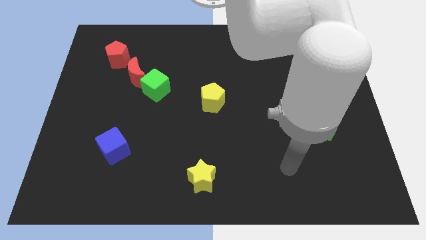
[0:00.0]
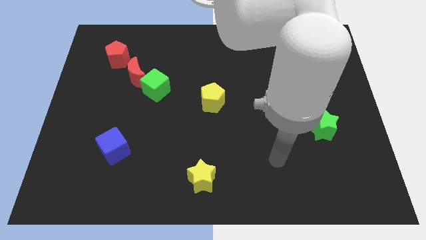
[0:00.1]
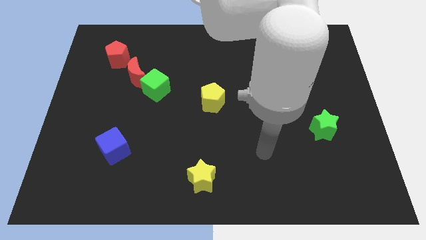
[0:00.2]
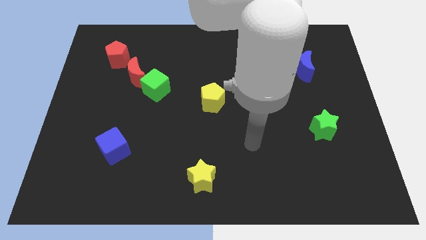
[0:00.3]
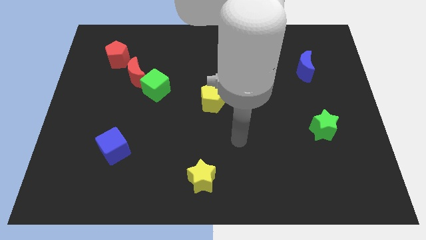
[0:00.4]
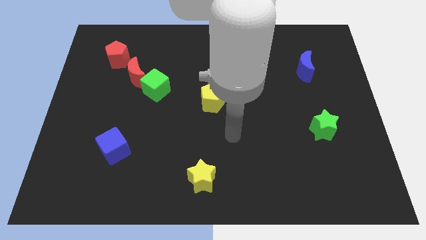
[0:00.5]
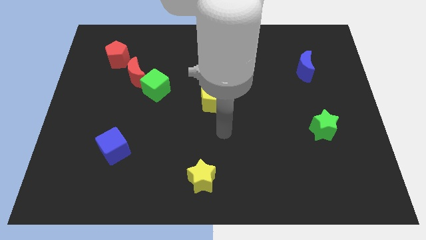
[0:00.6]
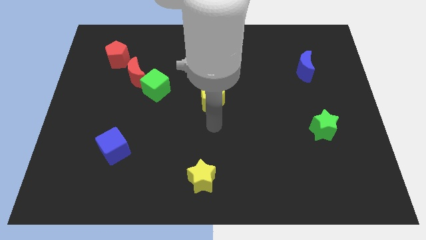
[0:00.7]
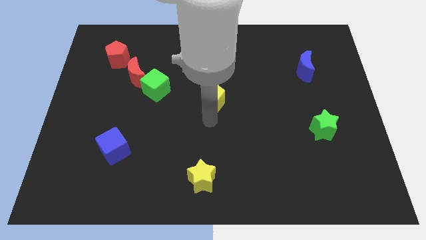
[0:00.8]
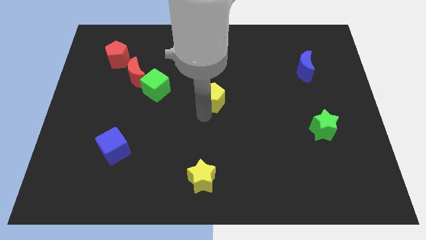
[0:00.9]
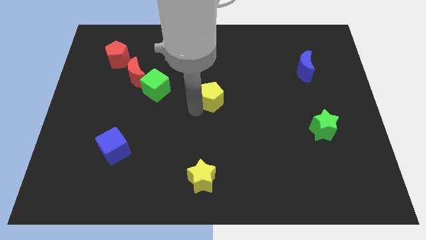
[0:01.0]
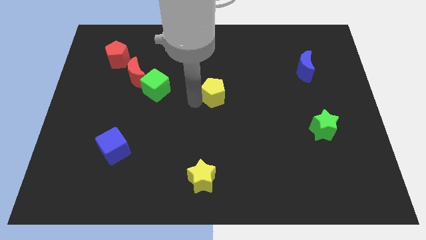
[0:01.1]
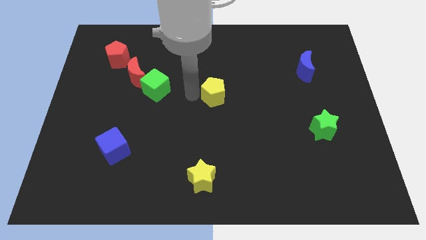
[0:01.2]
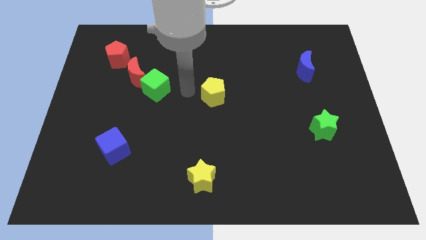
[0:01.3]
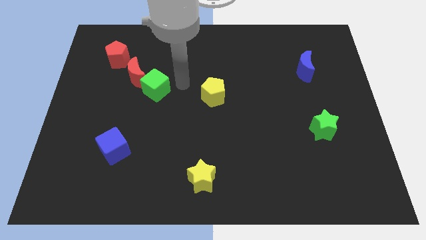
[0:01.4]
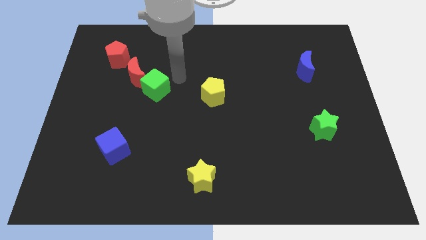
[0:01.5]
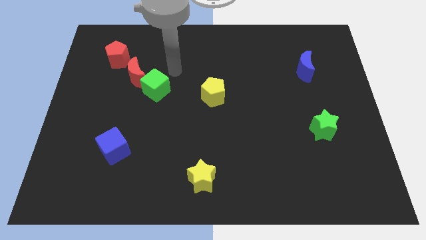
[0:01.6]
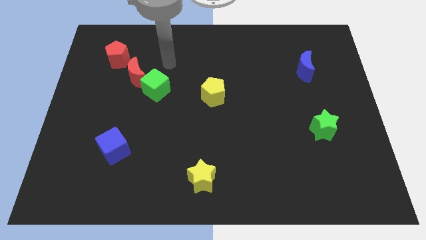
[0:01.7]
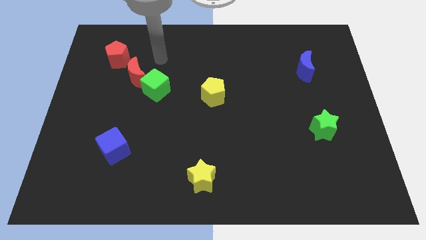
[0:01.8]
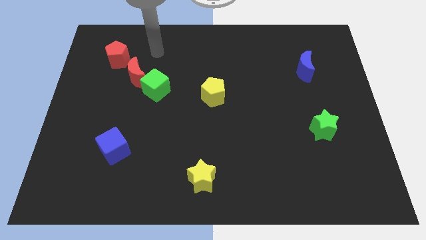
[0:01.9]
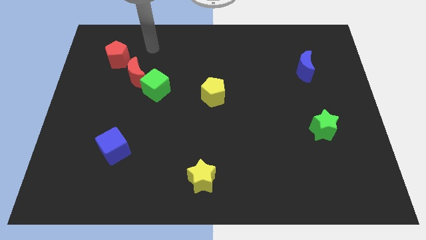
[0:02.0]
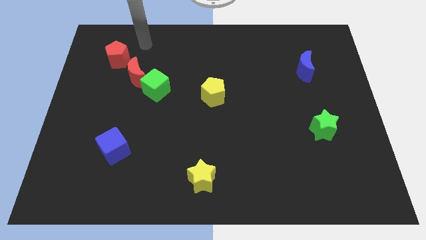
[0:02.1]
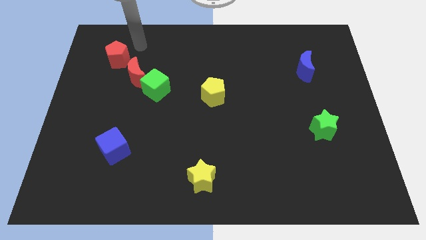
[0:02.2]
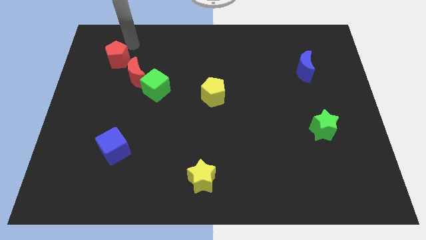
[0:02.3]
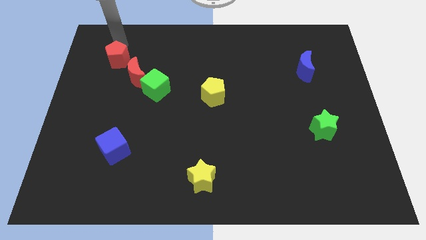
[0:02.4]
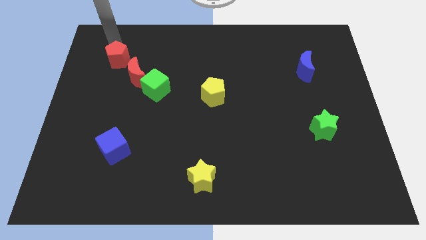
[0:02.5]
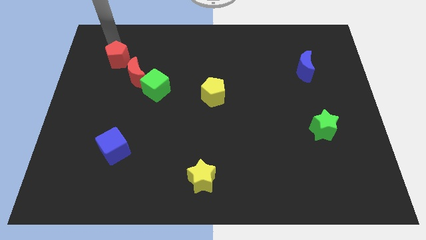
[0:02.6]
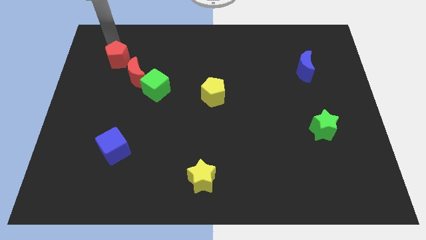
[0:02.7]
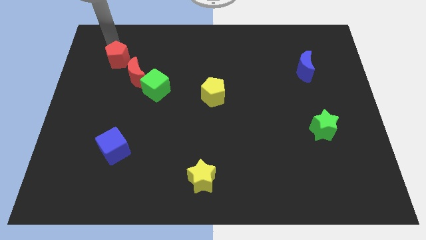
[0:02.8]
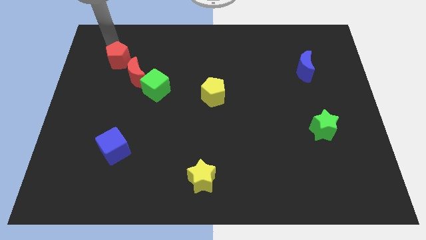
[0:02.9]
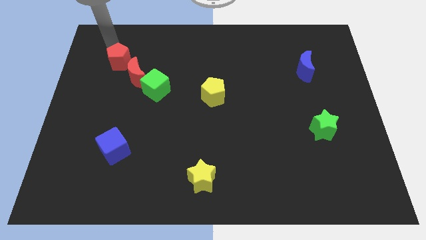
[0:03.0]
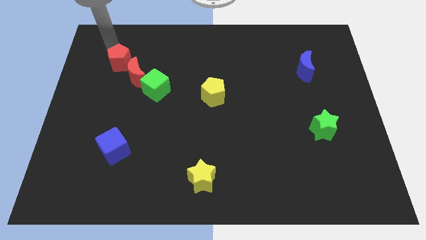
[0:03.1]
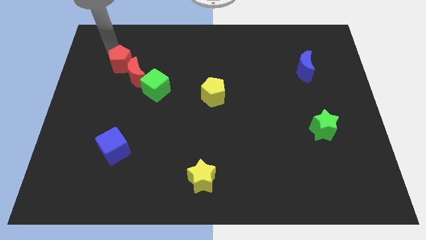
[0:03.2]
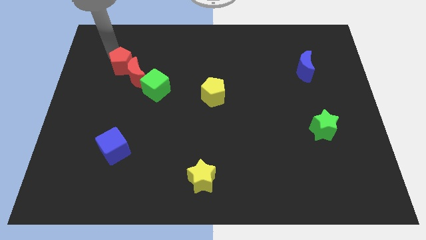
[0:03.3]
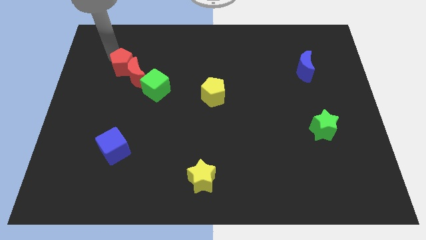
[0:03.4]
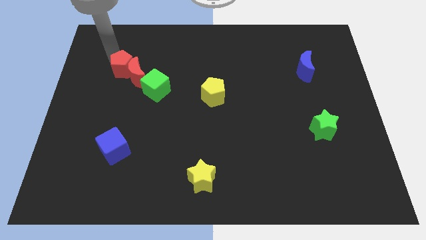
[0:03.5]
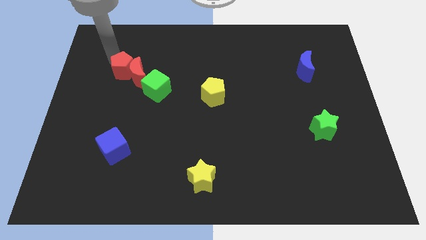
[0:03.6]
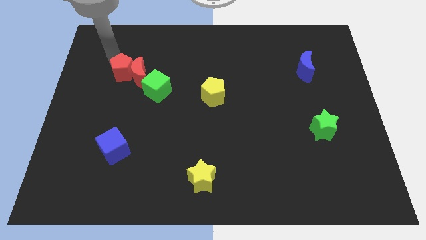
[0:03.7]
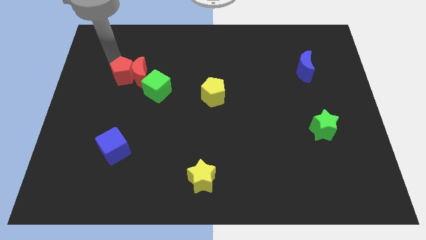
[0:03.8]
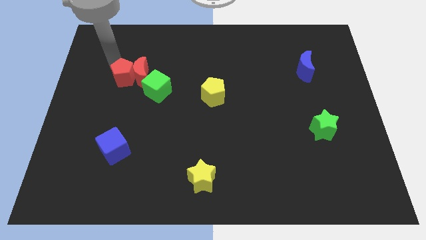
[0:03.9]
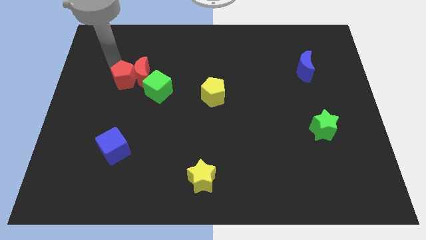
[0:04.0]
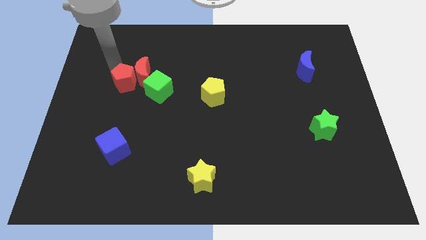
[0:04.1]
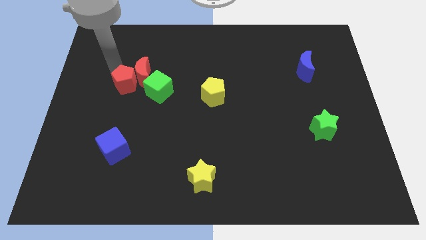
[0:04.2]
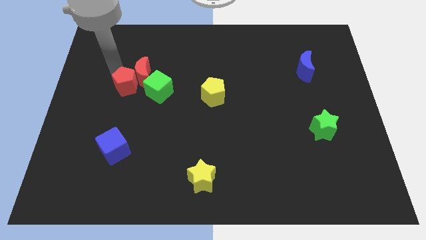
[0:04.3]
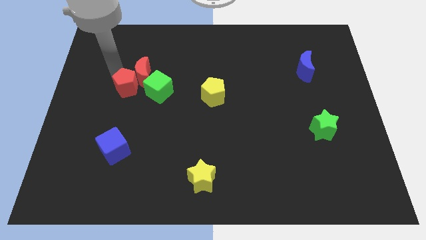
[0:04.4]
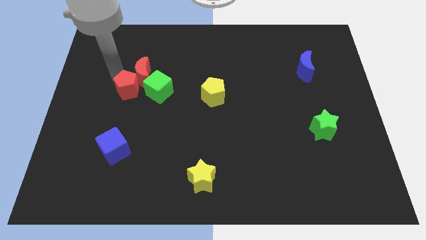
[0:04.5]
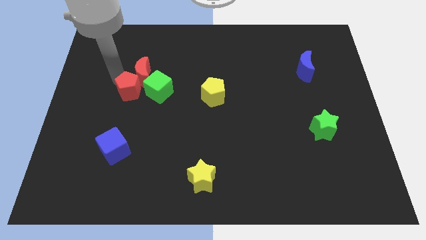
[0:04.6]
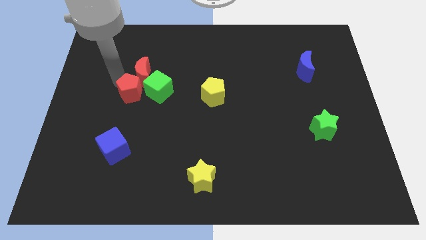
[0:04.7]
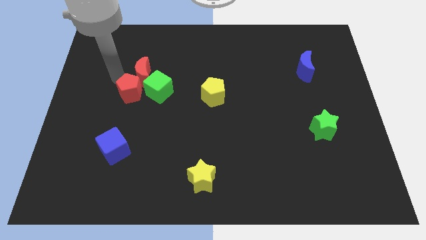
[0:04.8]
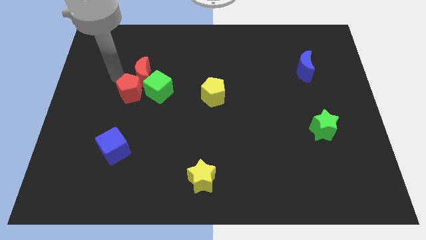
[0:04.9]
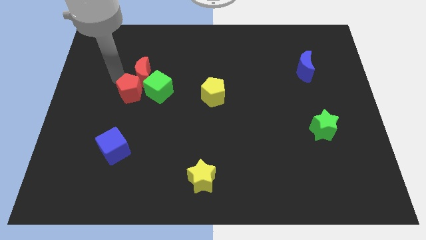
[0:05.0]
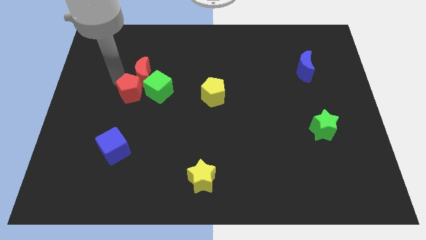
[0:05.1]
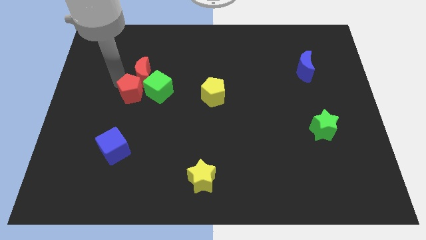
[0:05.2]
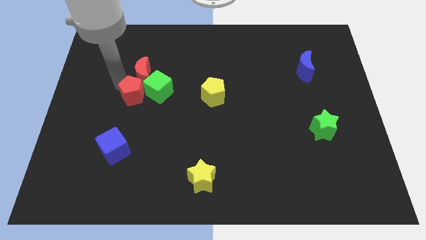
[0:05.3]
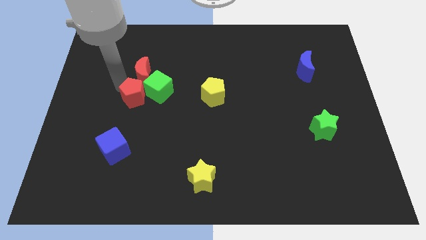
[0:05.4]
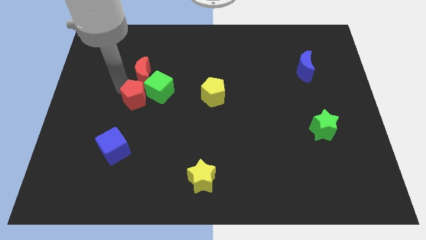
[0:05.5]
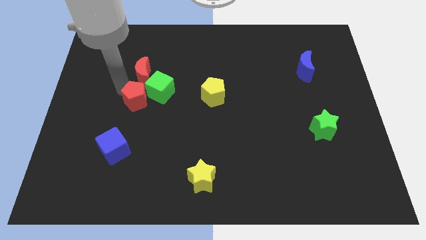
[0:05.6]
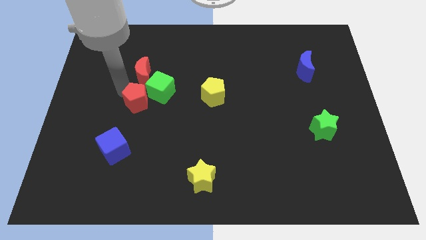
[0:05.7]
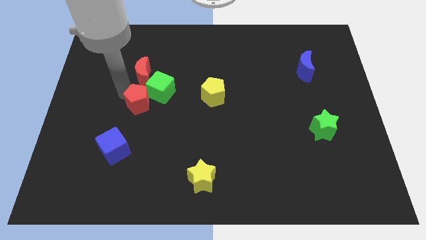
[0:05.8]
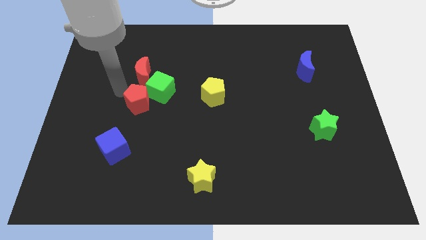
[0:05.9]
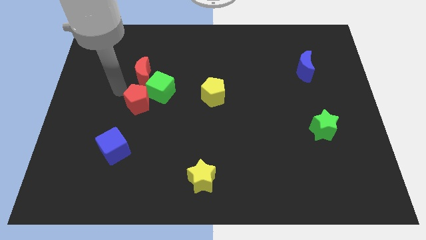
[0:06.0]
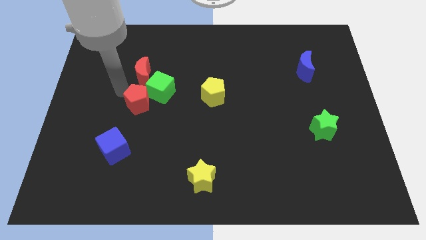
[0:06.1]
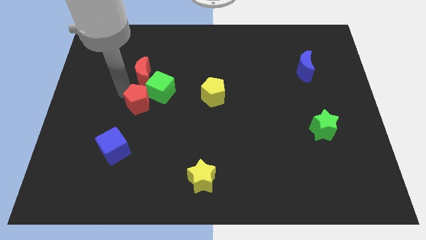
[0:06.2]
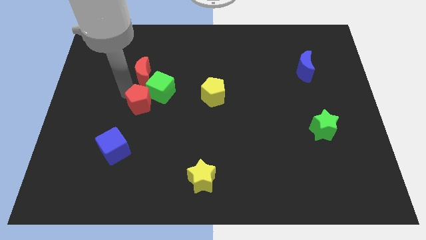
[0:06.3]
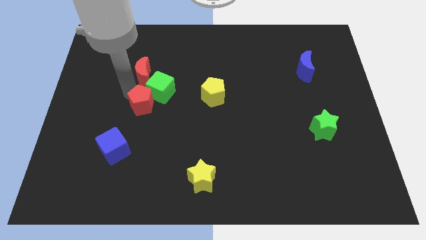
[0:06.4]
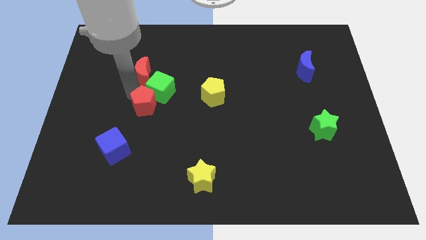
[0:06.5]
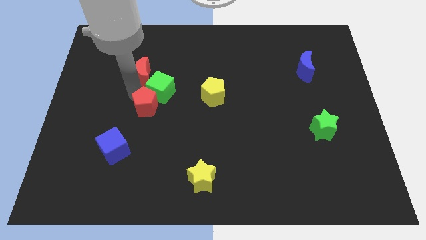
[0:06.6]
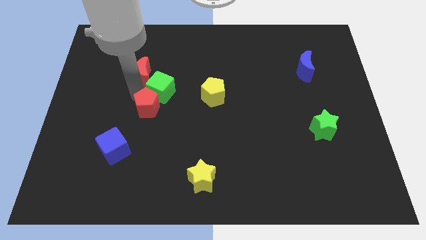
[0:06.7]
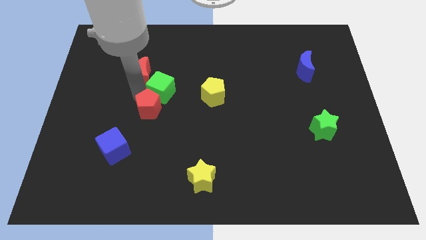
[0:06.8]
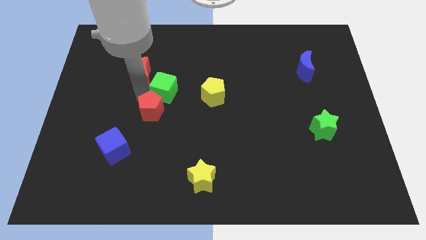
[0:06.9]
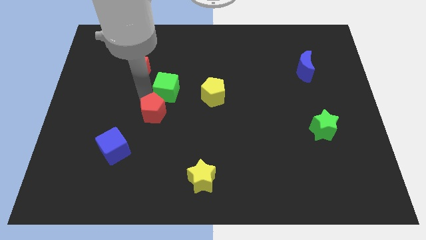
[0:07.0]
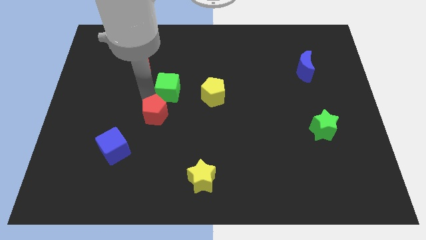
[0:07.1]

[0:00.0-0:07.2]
slide the red pentagon down and to the right diagonally

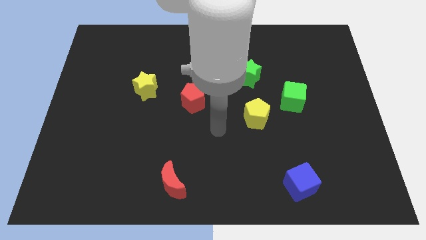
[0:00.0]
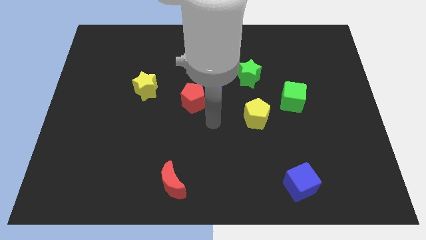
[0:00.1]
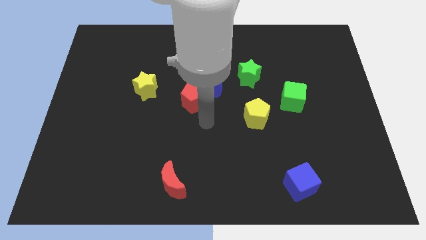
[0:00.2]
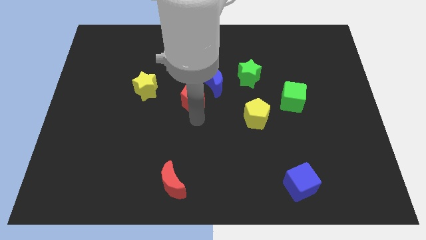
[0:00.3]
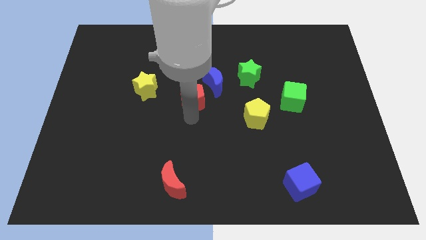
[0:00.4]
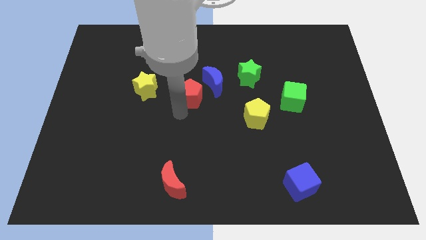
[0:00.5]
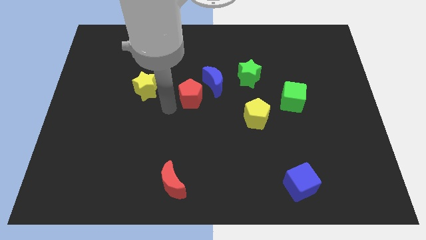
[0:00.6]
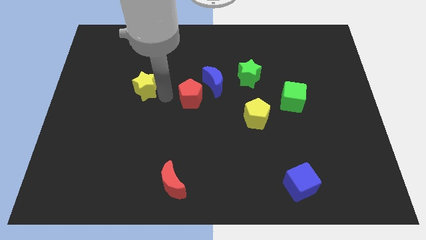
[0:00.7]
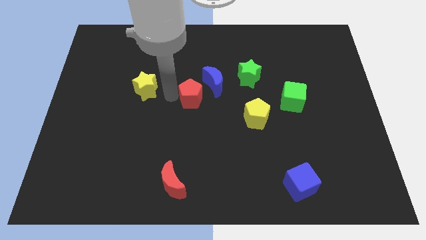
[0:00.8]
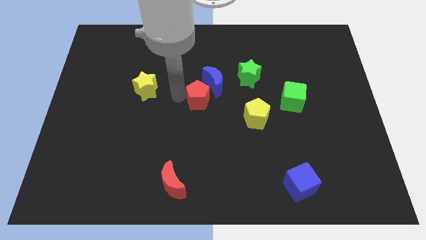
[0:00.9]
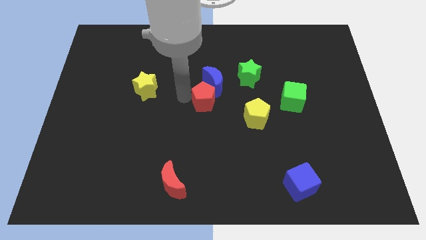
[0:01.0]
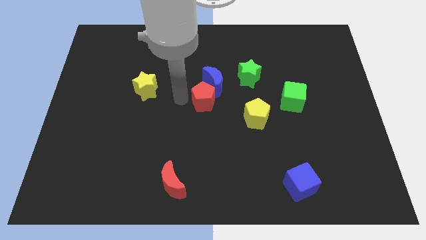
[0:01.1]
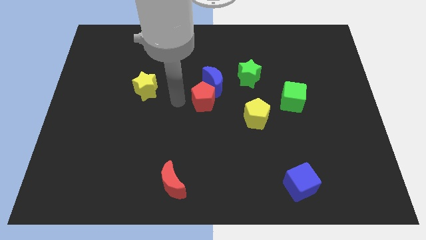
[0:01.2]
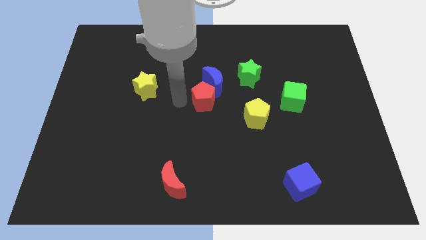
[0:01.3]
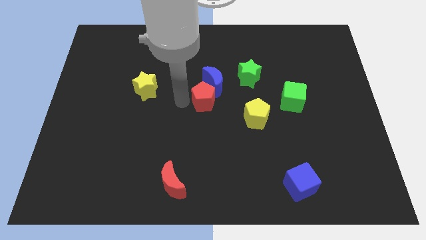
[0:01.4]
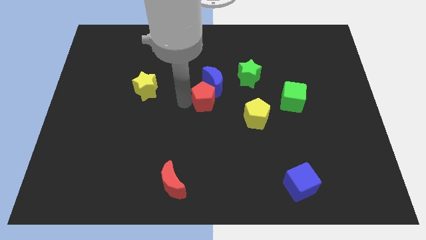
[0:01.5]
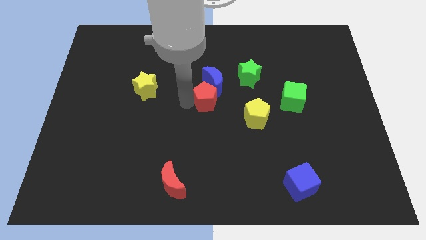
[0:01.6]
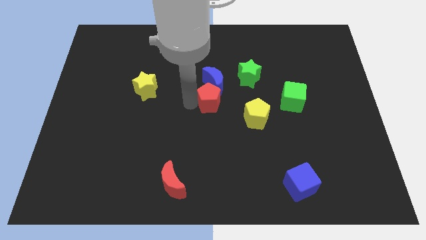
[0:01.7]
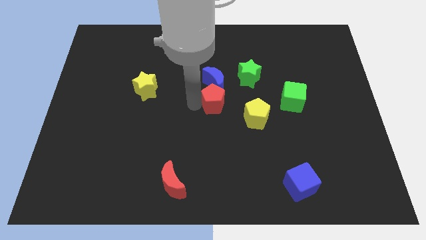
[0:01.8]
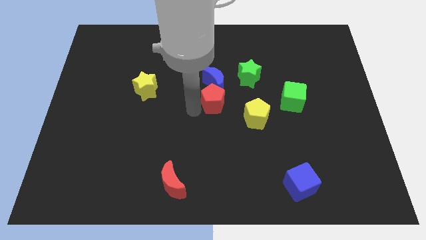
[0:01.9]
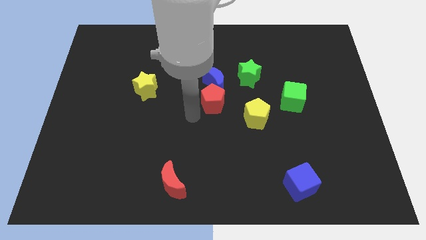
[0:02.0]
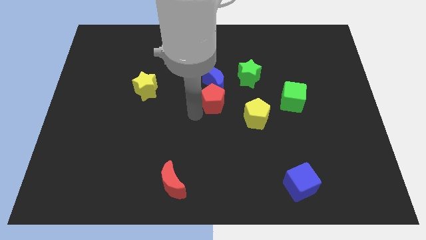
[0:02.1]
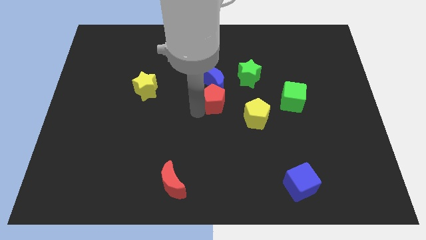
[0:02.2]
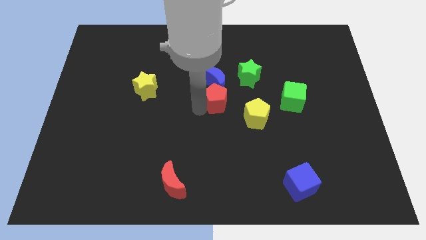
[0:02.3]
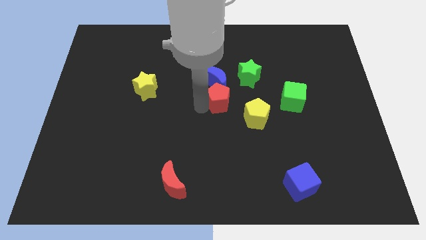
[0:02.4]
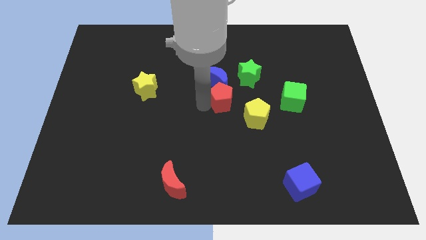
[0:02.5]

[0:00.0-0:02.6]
slightly slide the red pentagon to the right
